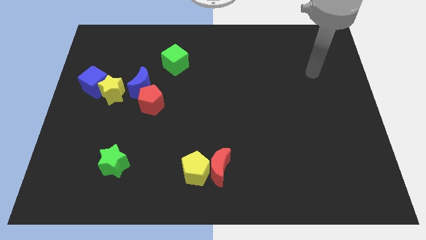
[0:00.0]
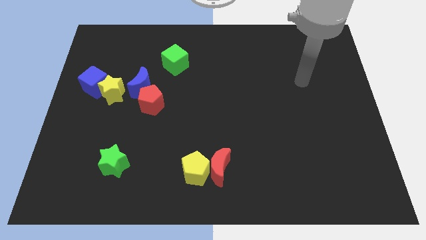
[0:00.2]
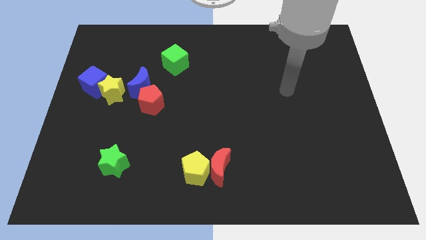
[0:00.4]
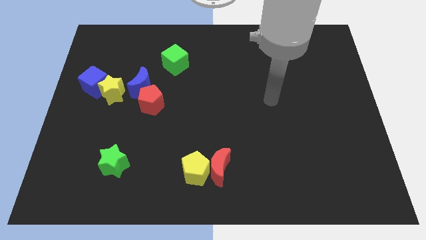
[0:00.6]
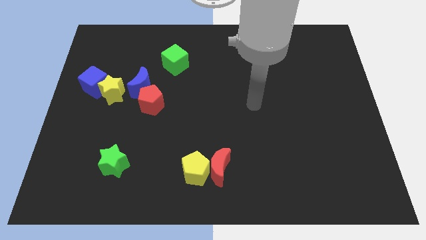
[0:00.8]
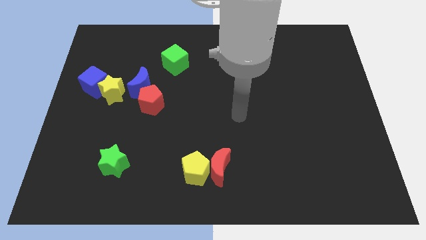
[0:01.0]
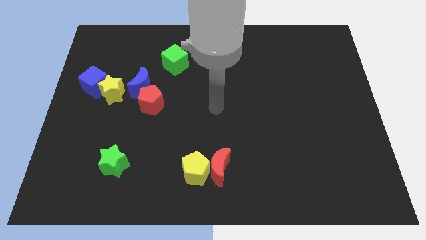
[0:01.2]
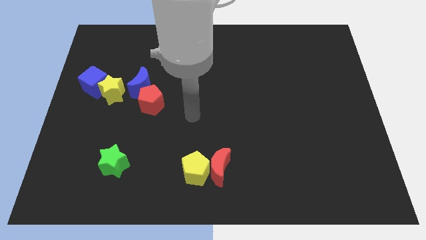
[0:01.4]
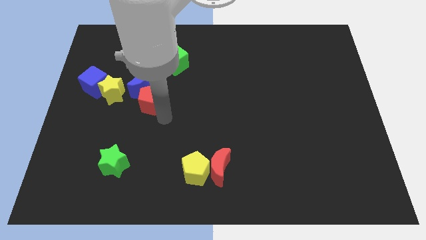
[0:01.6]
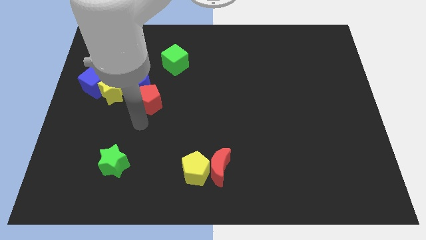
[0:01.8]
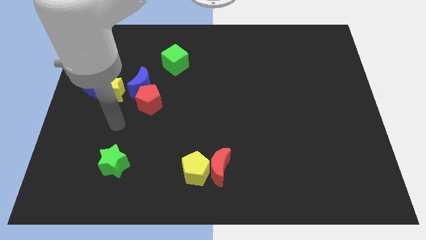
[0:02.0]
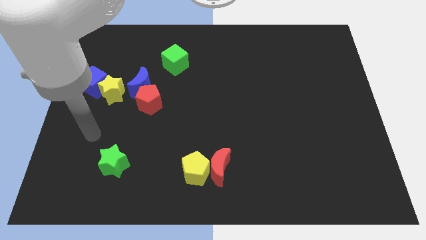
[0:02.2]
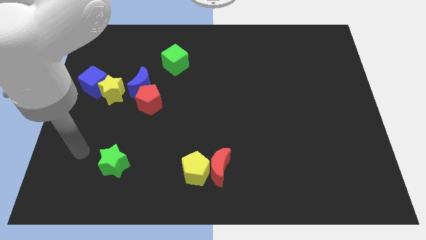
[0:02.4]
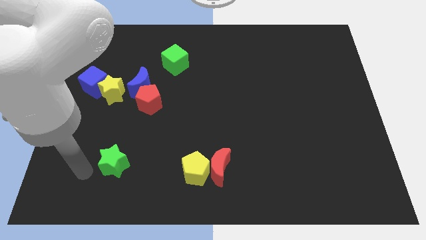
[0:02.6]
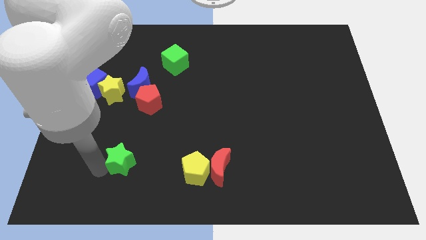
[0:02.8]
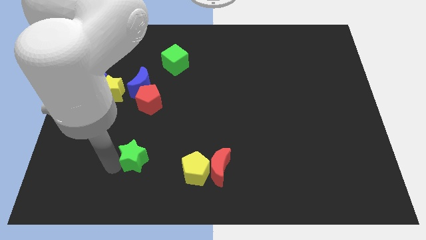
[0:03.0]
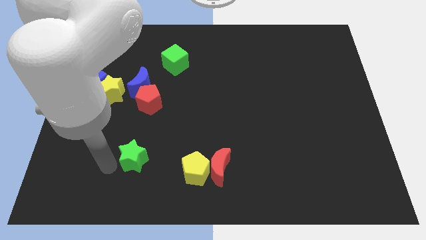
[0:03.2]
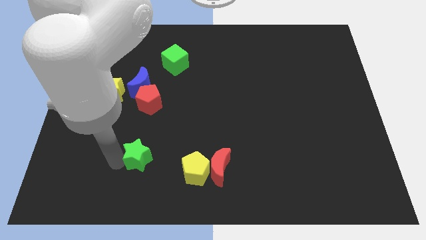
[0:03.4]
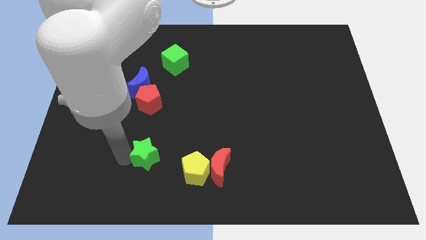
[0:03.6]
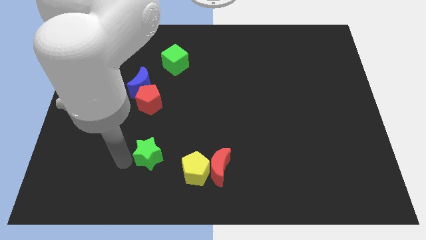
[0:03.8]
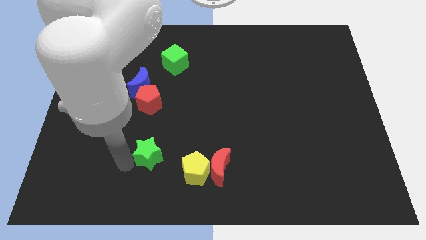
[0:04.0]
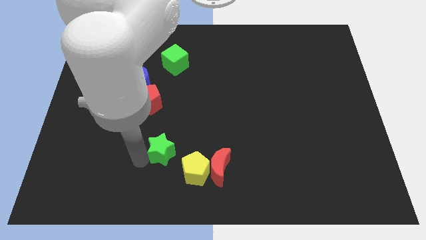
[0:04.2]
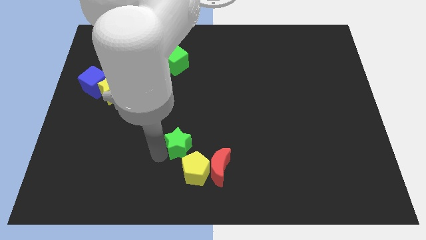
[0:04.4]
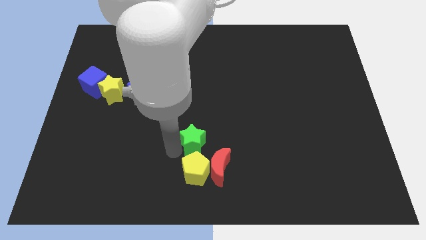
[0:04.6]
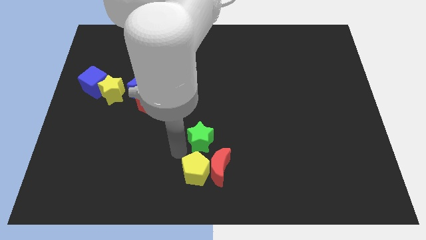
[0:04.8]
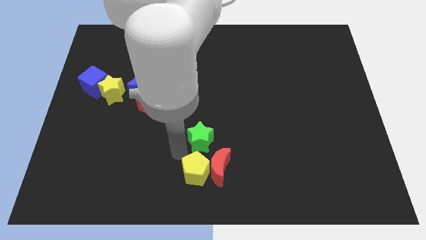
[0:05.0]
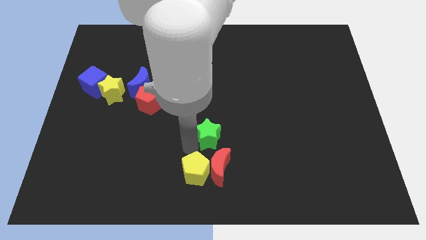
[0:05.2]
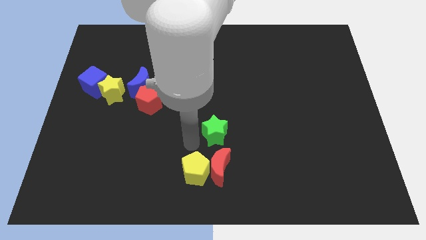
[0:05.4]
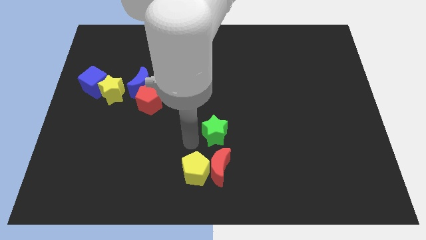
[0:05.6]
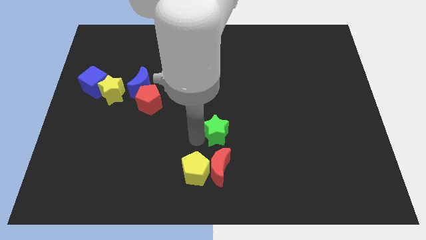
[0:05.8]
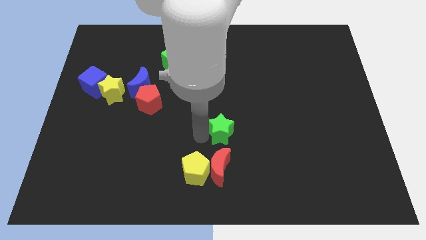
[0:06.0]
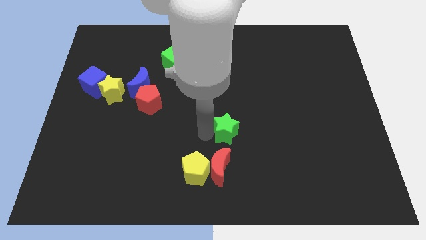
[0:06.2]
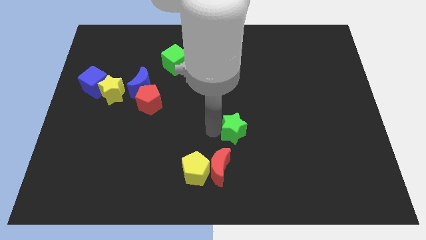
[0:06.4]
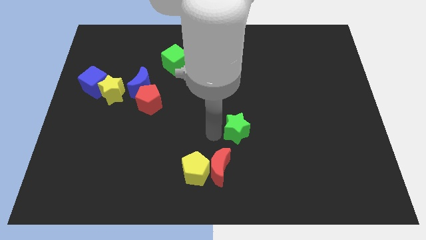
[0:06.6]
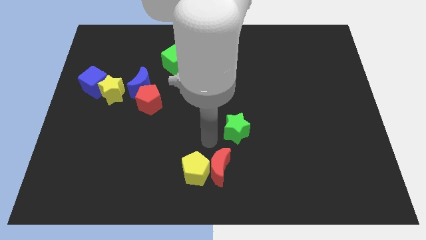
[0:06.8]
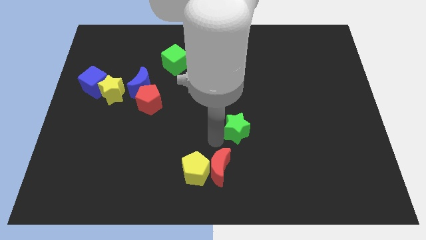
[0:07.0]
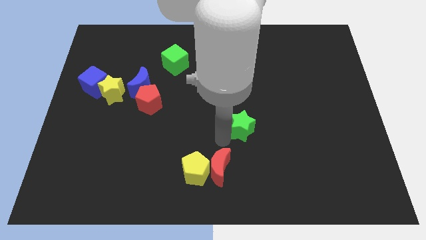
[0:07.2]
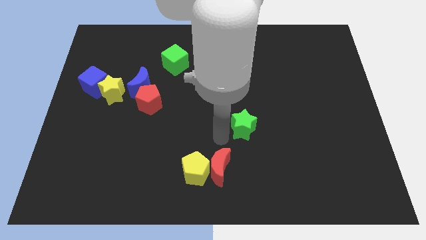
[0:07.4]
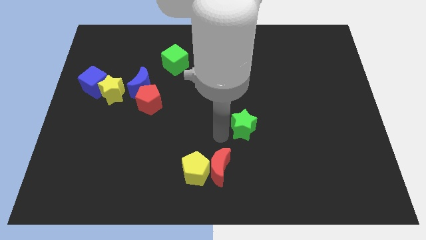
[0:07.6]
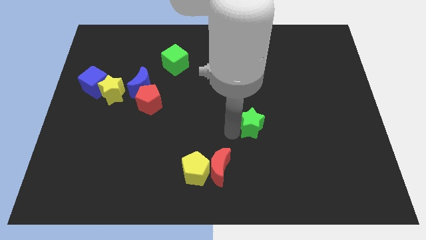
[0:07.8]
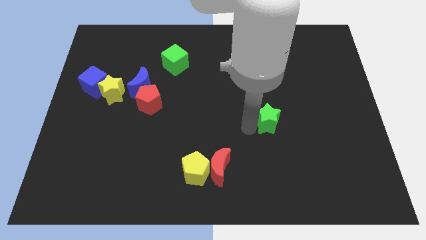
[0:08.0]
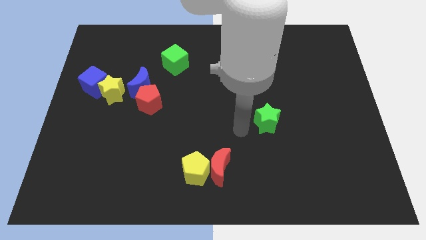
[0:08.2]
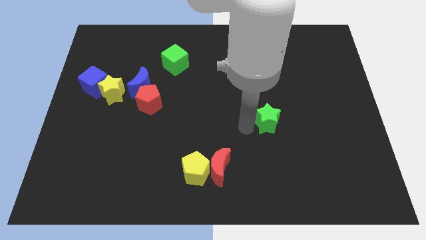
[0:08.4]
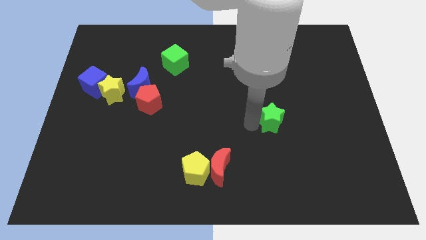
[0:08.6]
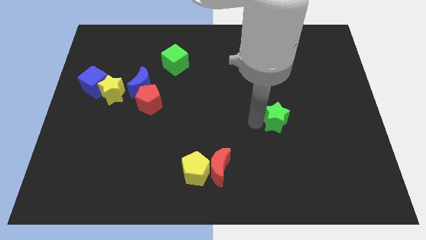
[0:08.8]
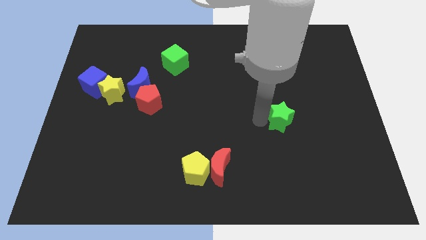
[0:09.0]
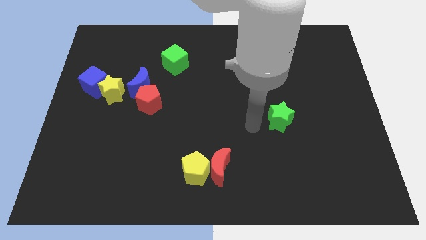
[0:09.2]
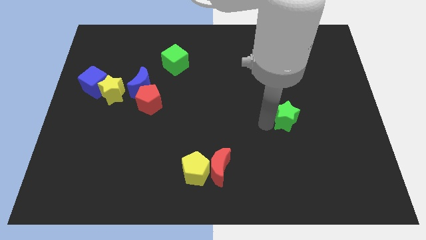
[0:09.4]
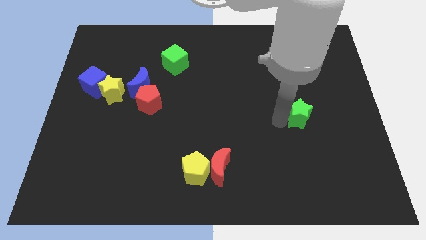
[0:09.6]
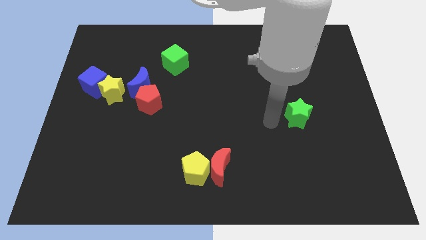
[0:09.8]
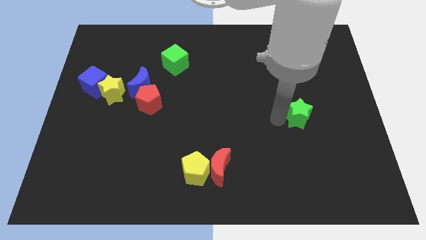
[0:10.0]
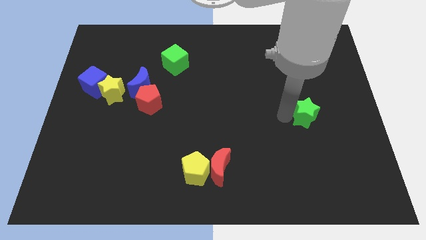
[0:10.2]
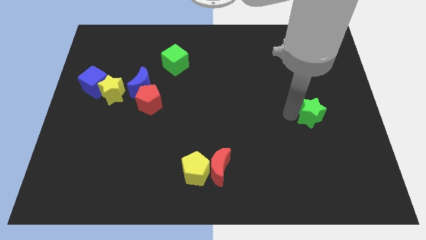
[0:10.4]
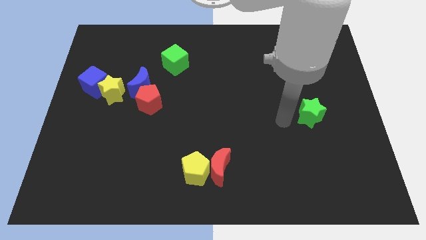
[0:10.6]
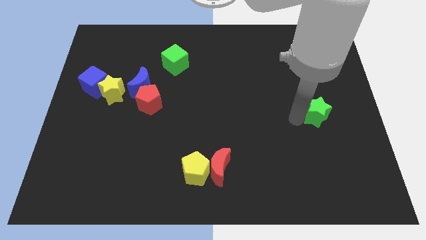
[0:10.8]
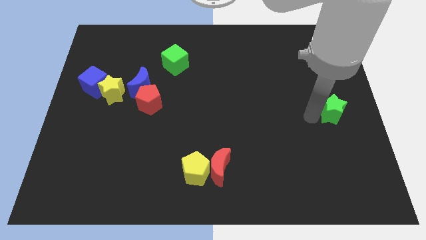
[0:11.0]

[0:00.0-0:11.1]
push the green star to the right side

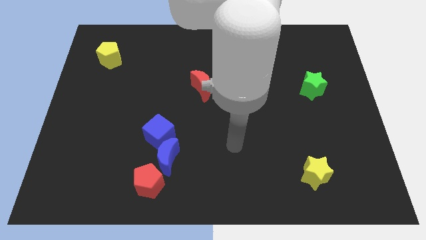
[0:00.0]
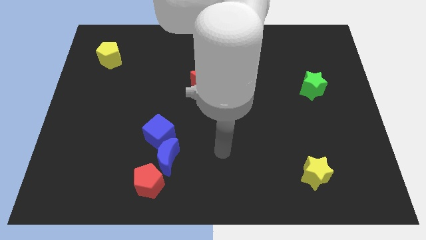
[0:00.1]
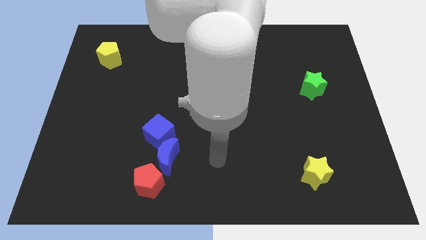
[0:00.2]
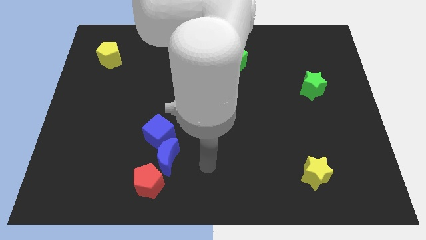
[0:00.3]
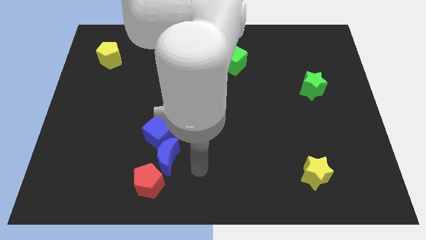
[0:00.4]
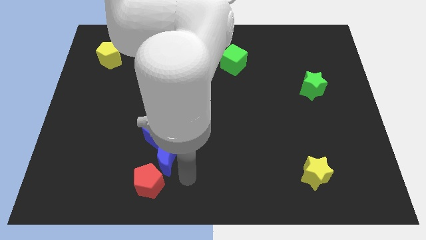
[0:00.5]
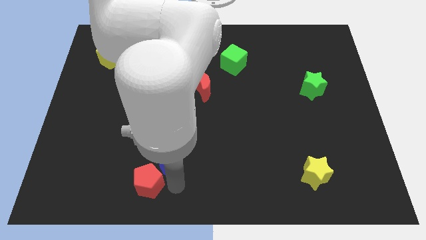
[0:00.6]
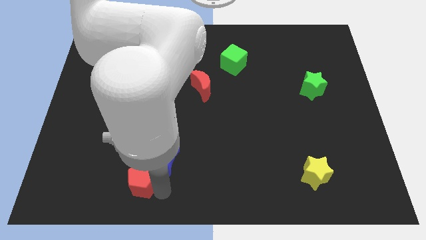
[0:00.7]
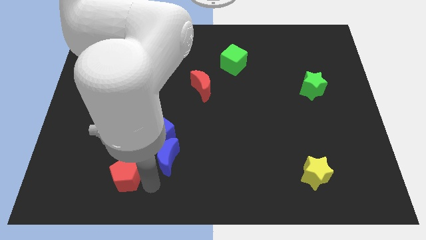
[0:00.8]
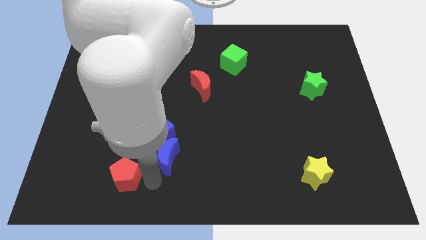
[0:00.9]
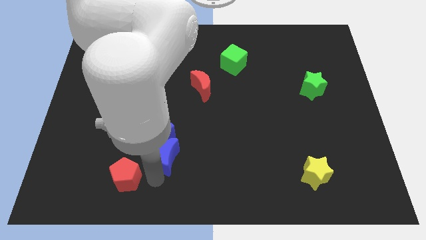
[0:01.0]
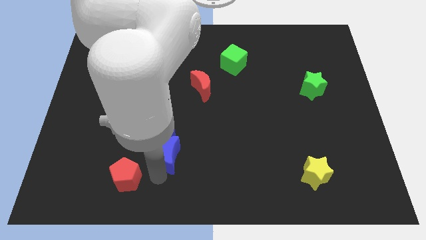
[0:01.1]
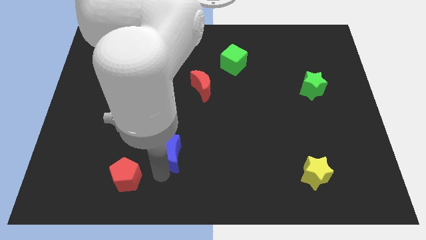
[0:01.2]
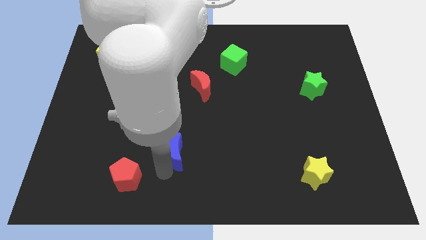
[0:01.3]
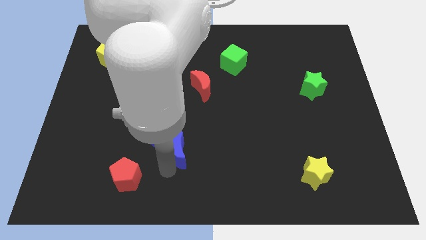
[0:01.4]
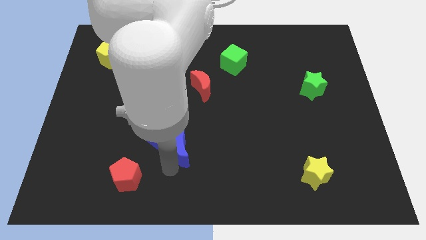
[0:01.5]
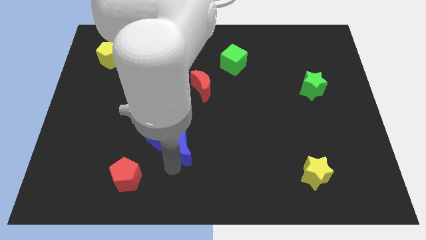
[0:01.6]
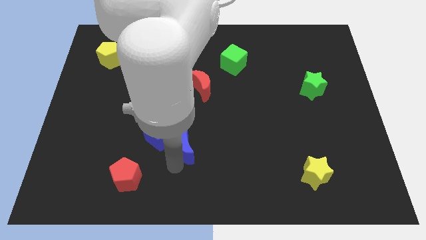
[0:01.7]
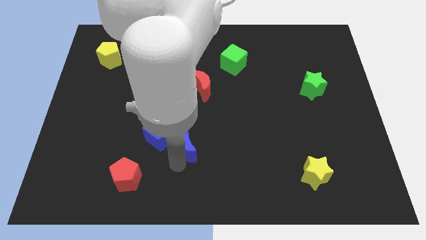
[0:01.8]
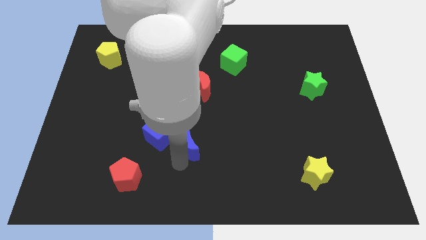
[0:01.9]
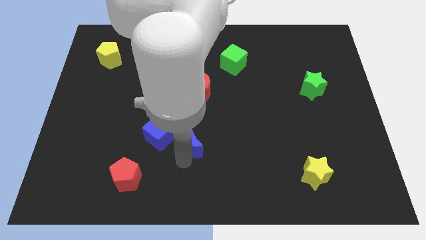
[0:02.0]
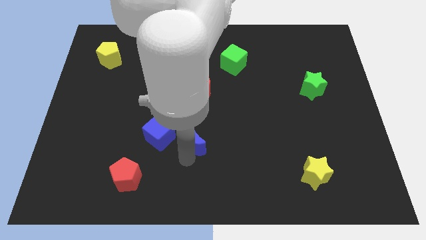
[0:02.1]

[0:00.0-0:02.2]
slide the blue moon to the center of the board
